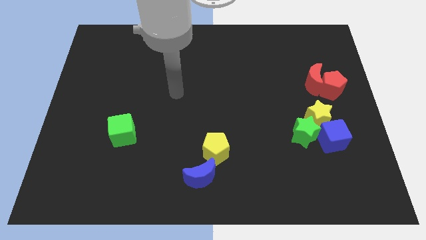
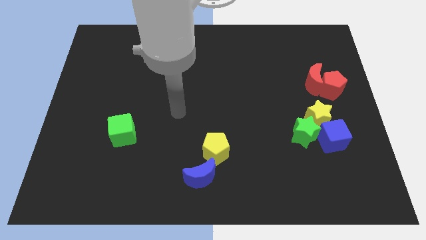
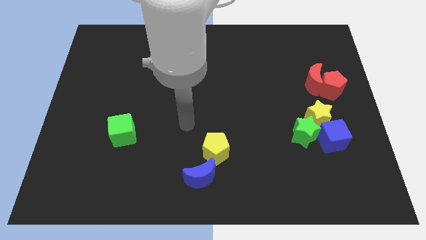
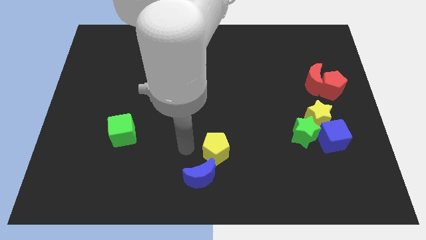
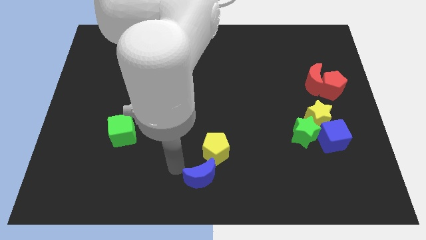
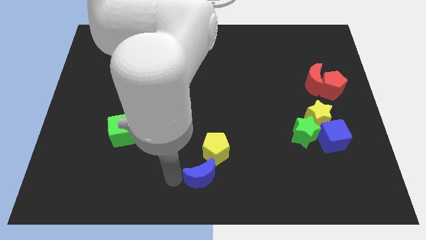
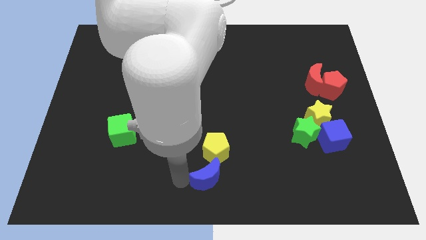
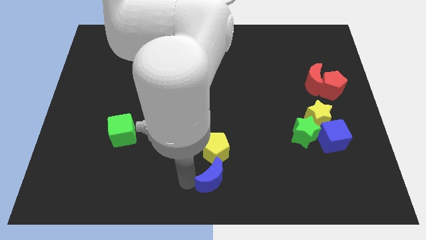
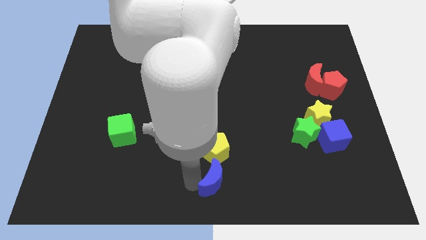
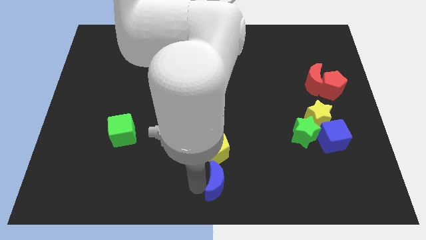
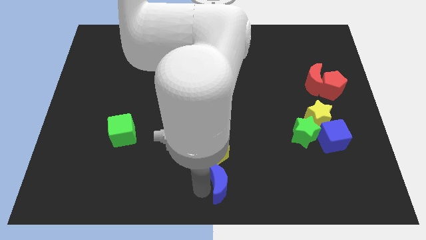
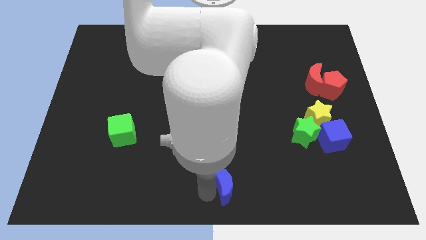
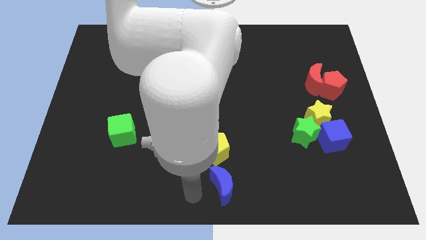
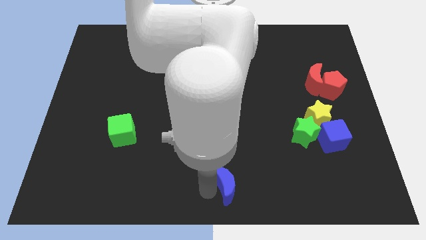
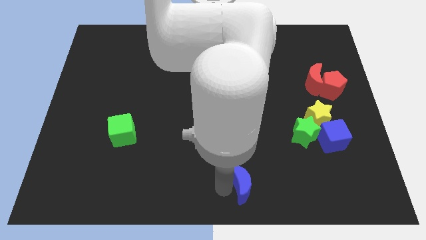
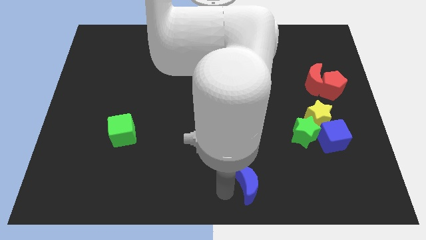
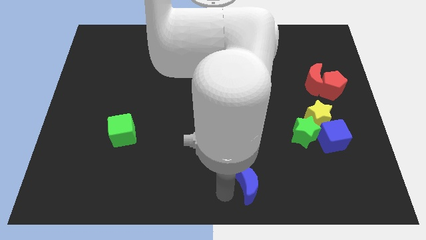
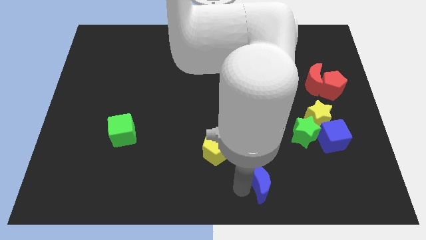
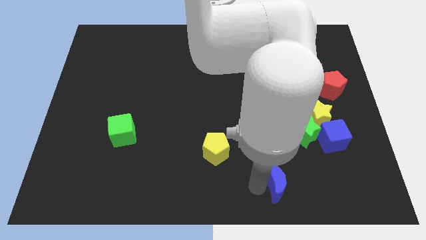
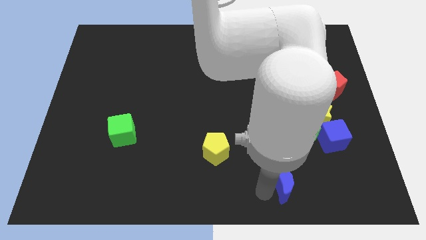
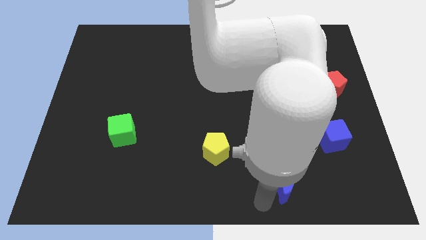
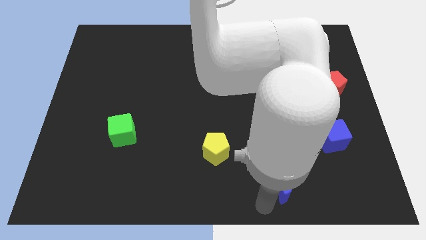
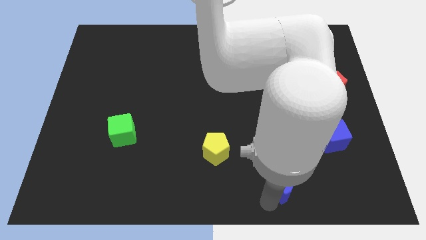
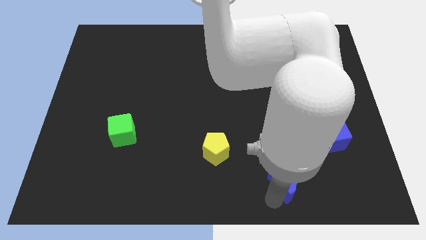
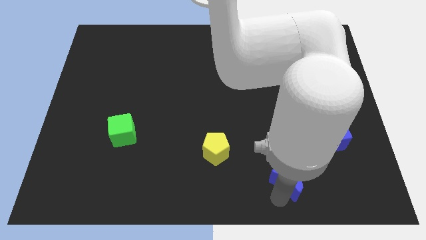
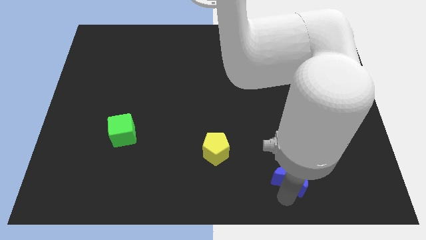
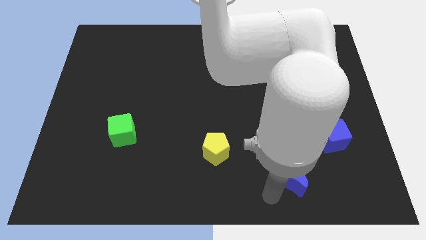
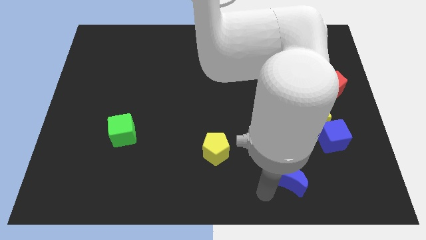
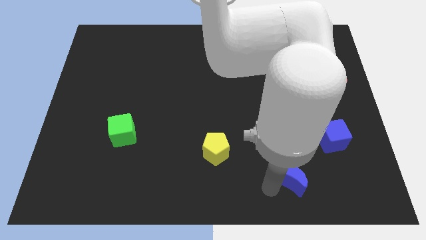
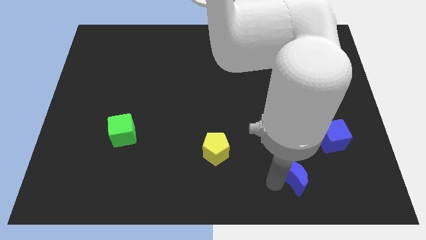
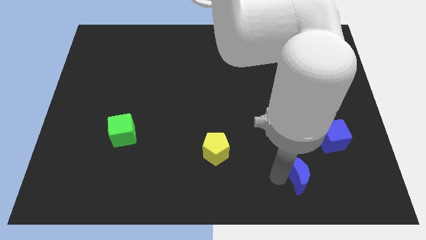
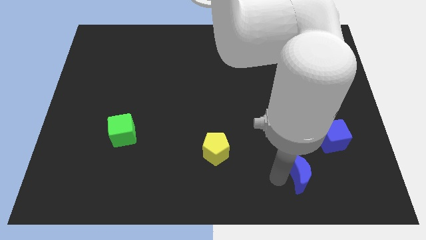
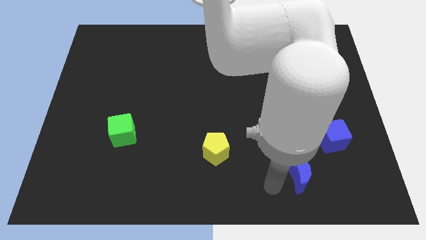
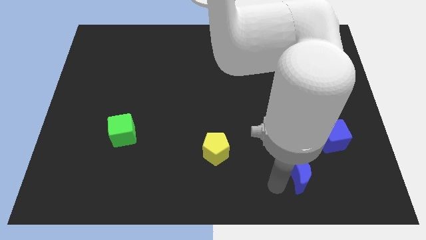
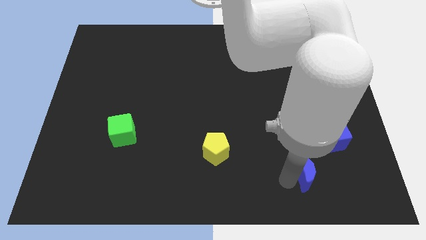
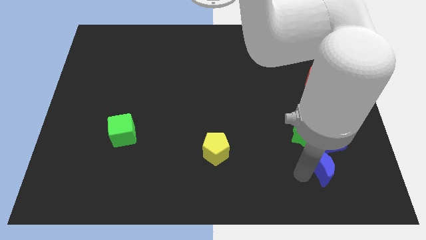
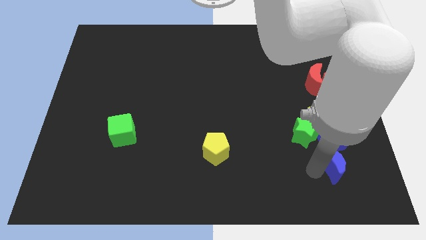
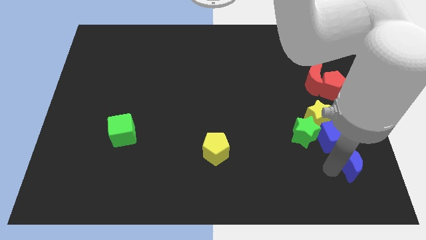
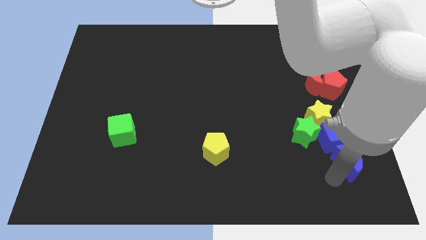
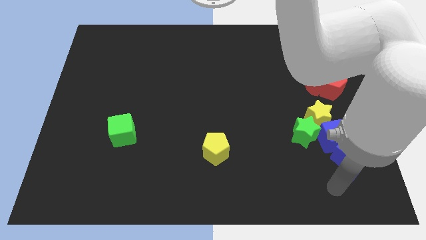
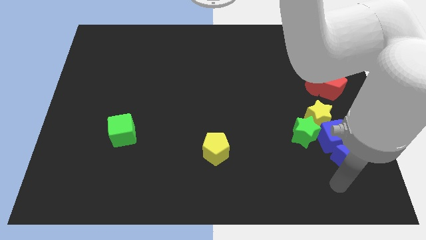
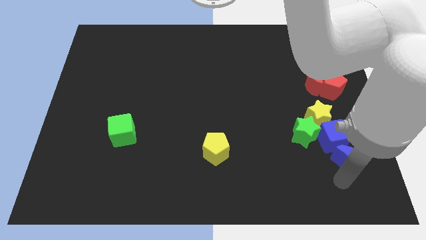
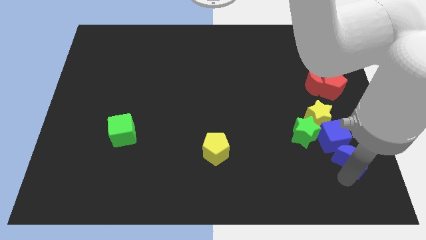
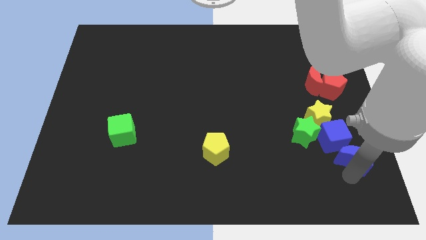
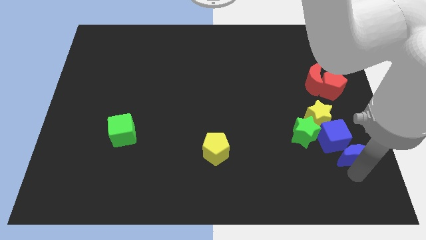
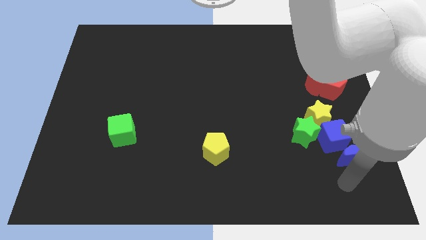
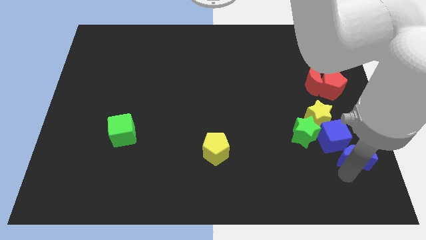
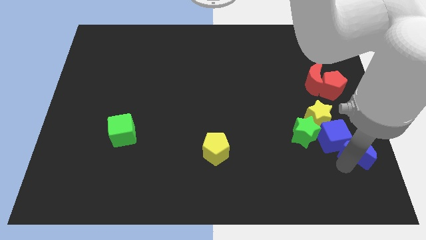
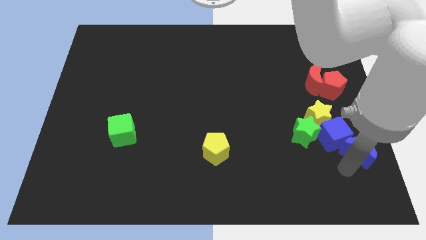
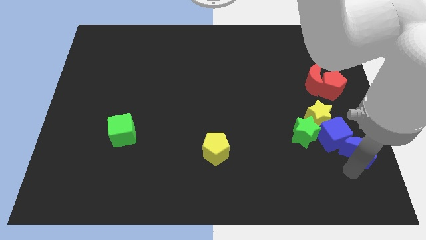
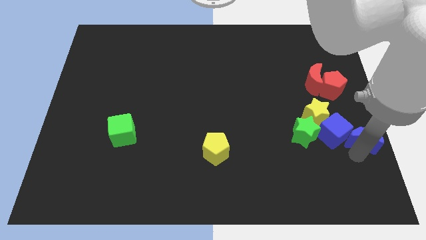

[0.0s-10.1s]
push the blue moon to the right side of the board

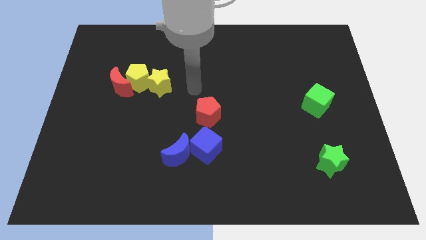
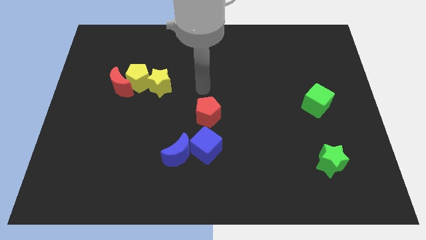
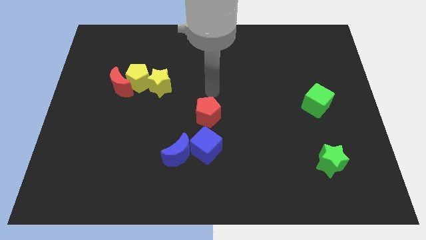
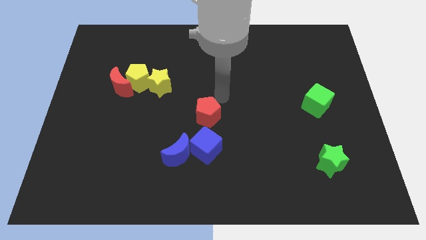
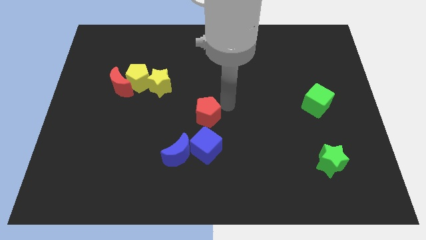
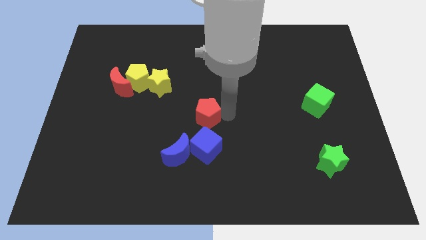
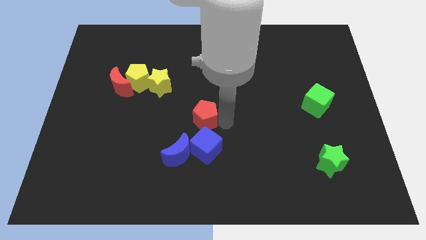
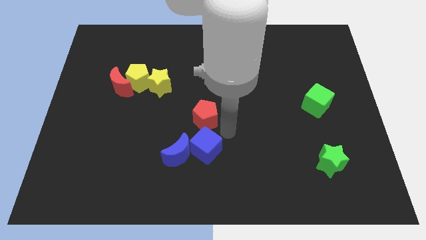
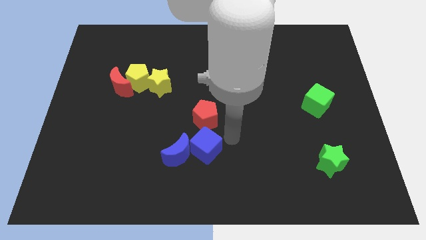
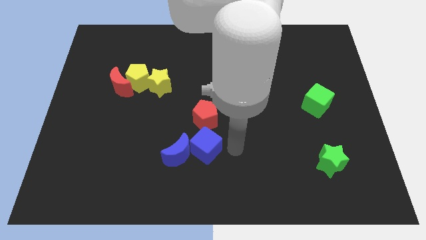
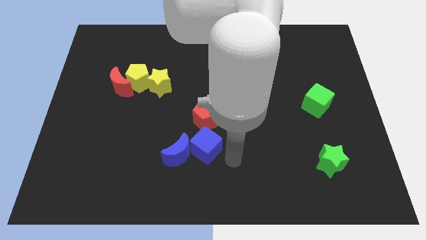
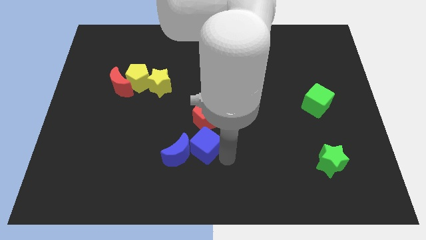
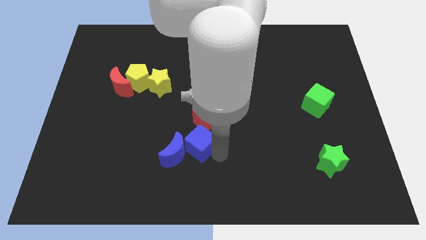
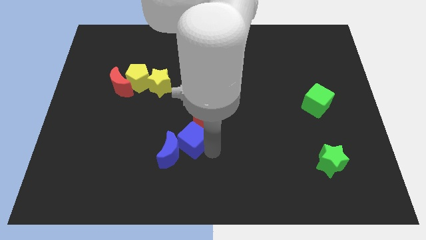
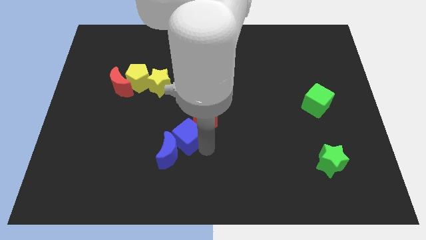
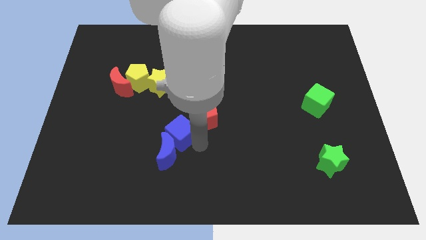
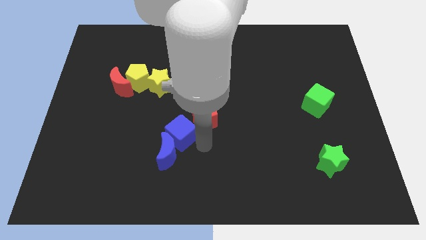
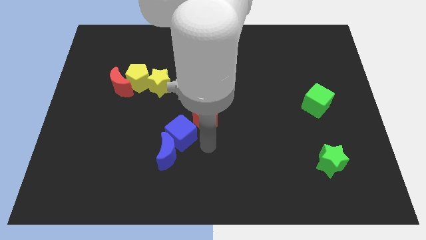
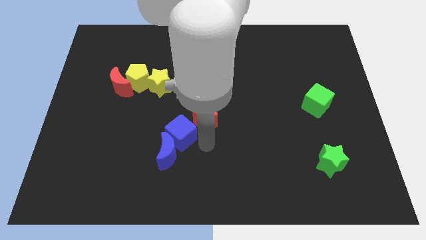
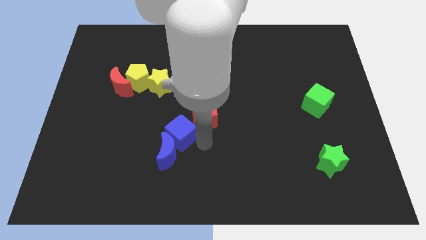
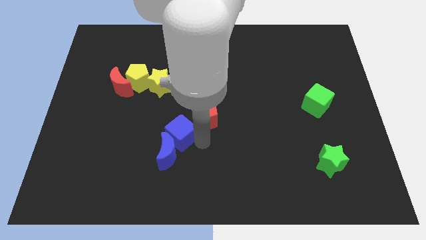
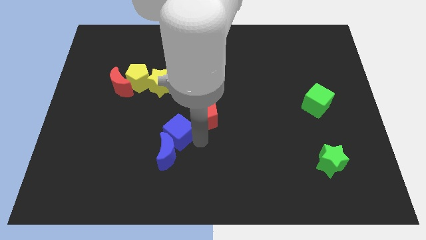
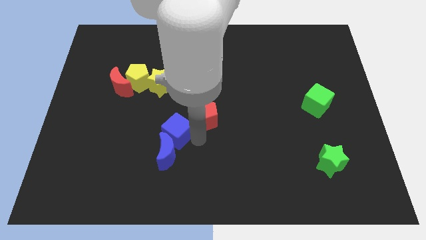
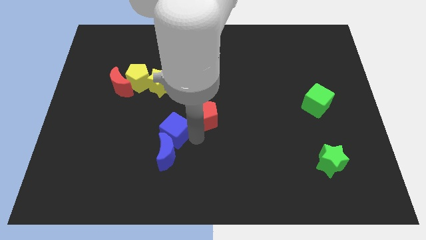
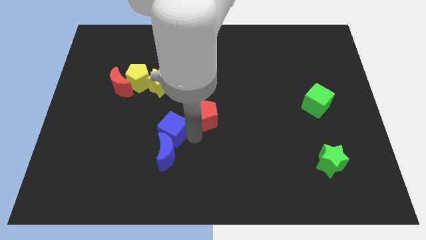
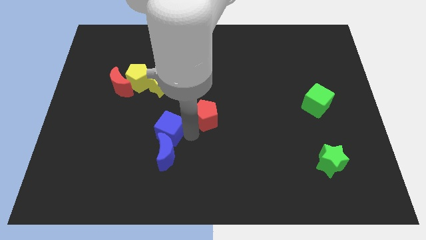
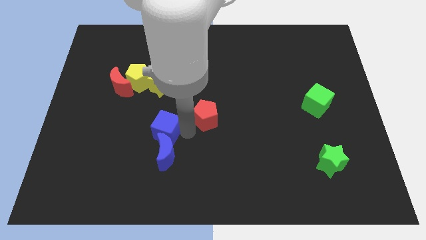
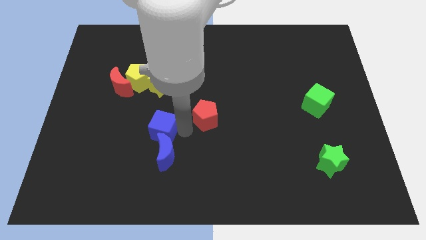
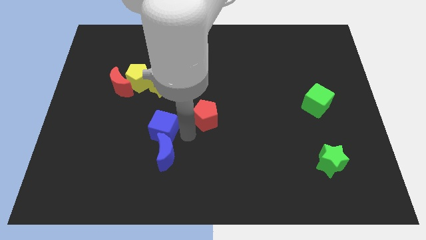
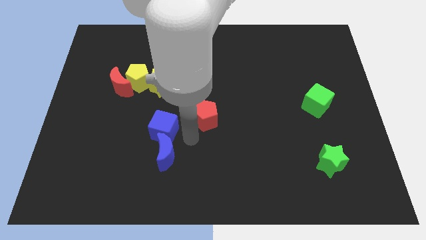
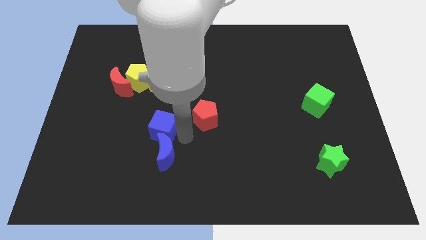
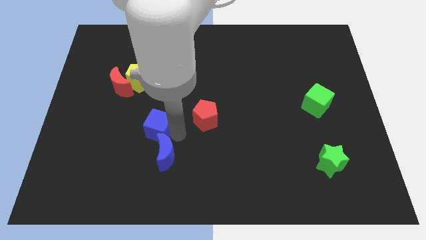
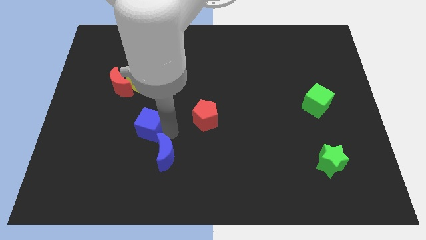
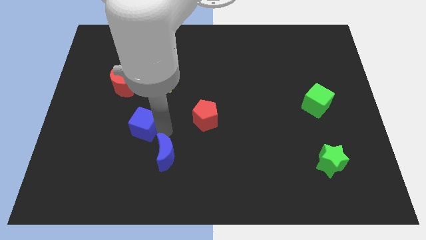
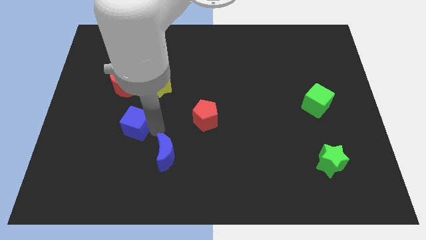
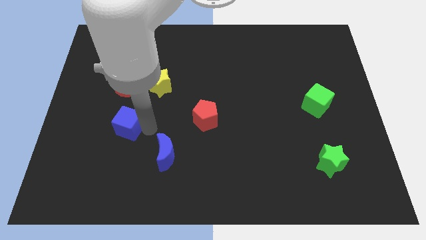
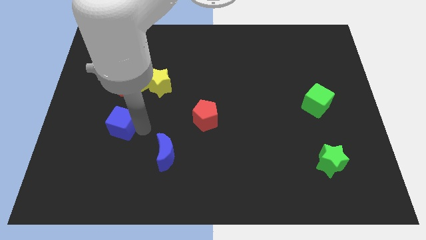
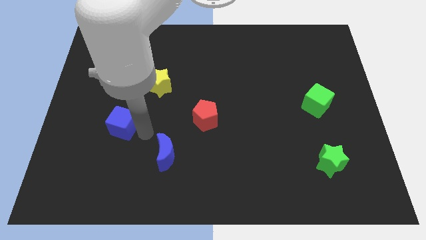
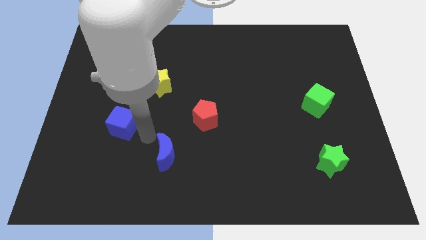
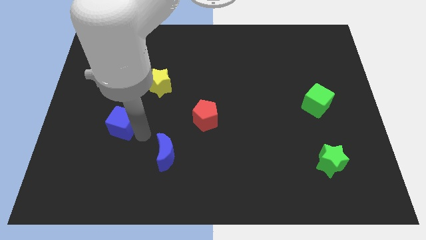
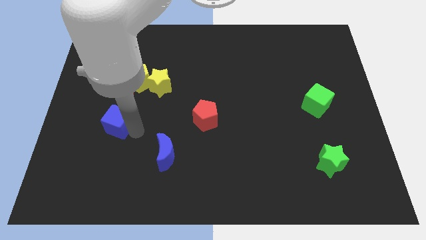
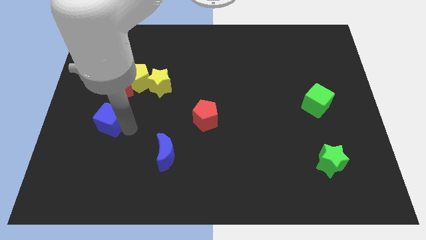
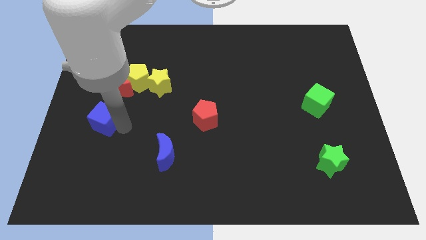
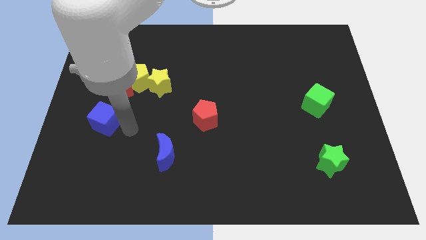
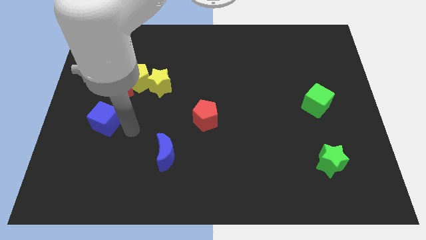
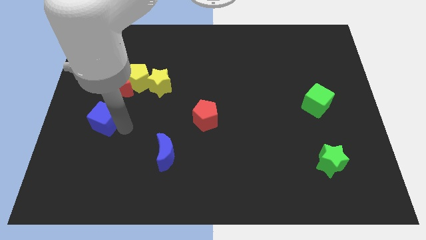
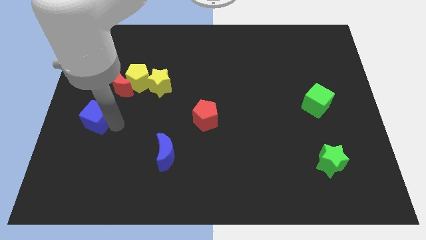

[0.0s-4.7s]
put the blue cube to the left side
